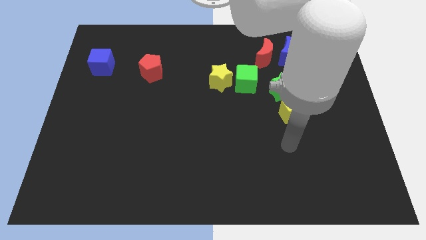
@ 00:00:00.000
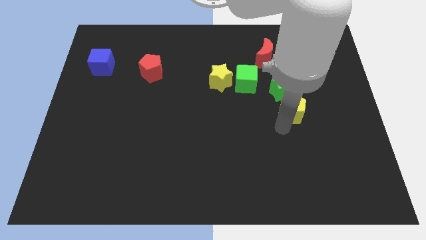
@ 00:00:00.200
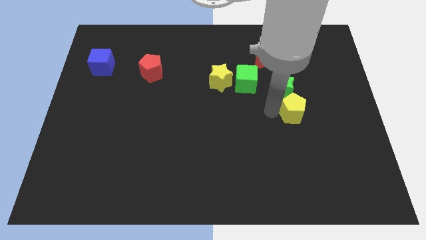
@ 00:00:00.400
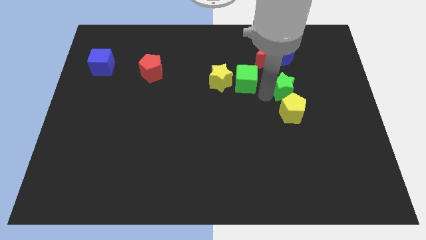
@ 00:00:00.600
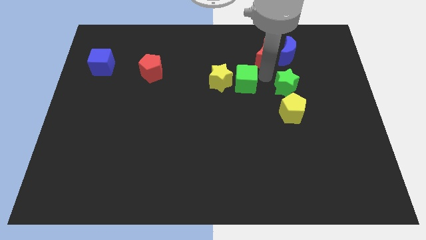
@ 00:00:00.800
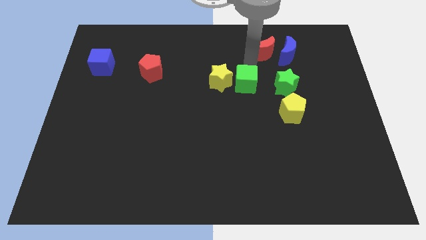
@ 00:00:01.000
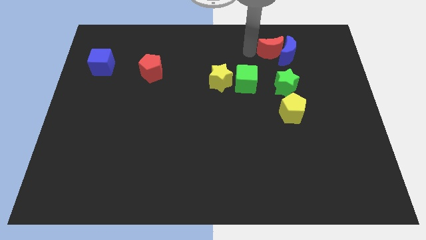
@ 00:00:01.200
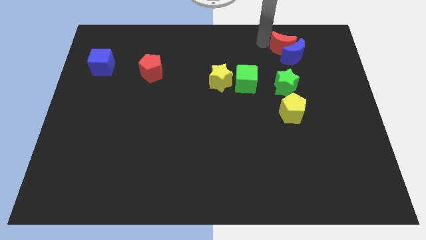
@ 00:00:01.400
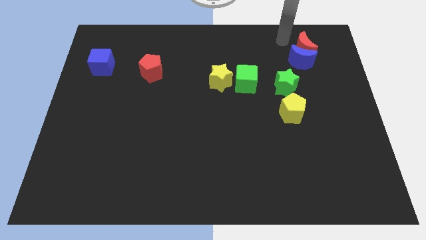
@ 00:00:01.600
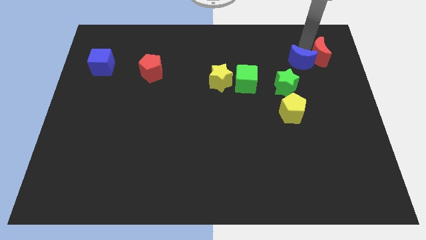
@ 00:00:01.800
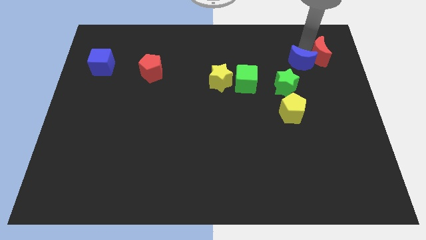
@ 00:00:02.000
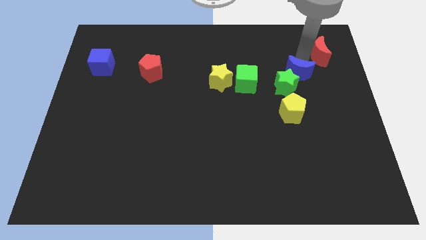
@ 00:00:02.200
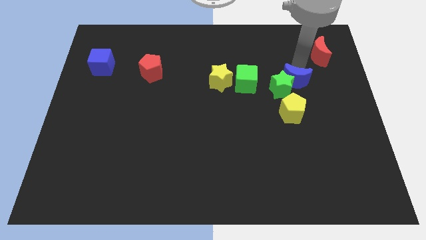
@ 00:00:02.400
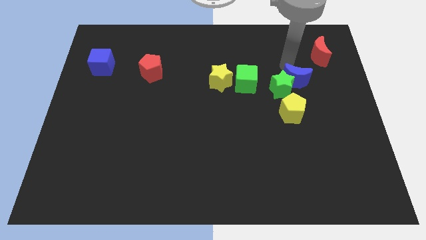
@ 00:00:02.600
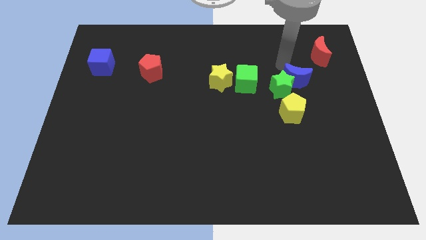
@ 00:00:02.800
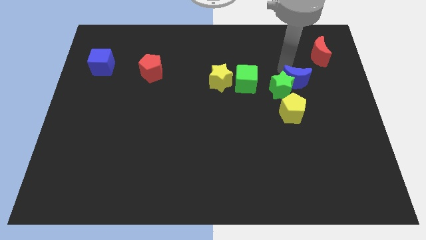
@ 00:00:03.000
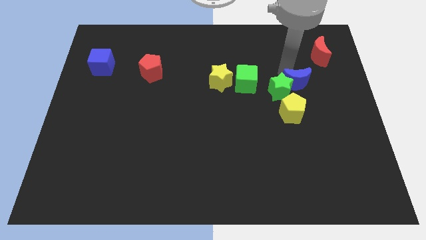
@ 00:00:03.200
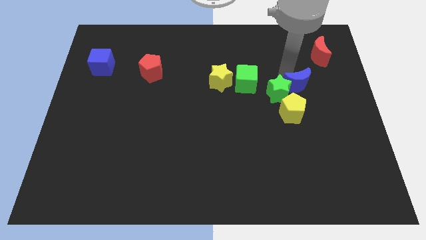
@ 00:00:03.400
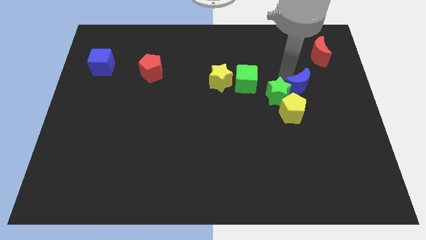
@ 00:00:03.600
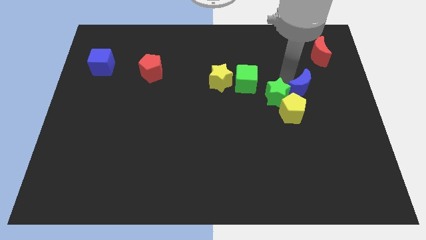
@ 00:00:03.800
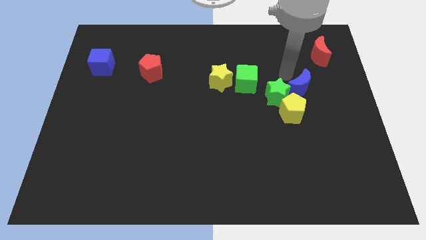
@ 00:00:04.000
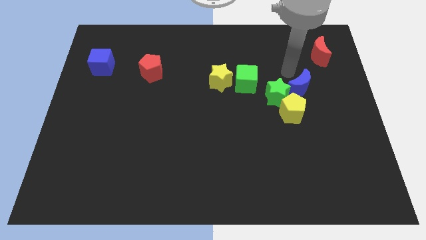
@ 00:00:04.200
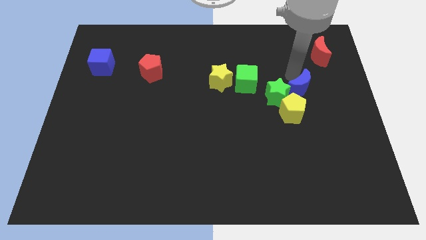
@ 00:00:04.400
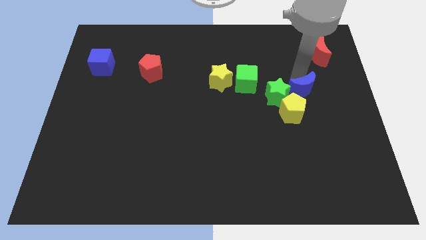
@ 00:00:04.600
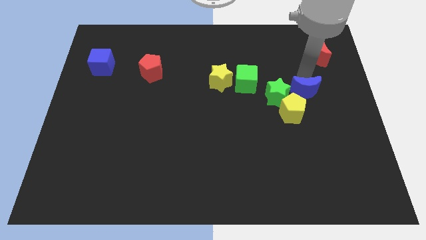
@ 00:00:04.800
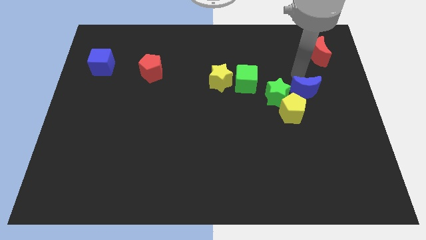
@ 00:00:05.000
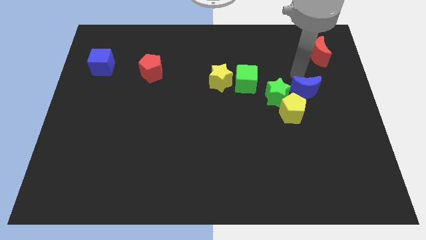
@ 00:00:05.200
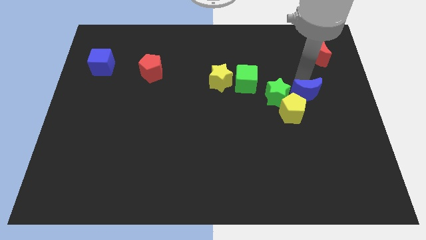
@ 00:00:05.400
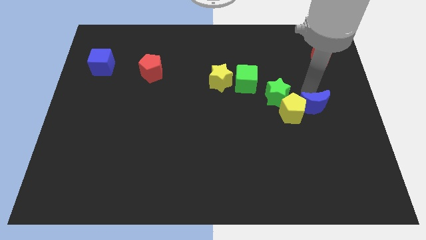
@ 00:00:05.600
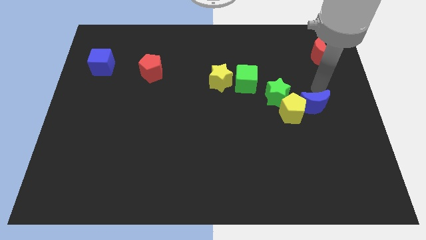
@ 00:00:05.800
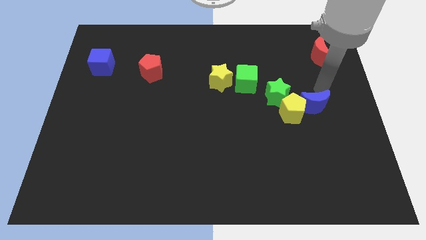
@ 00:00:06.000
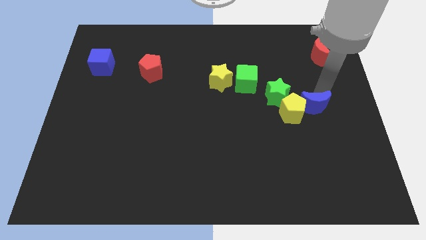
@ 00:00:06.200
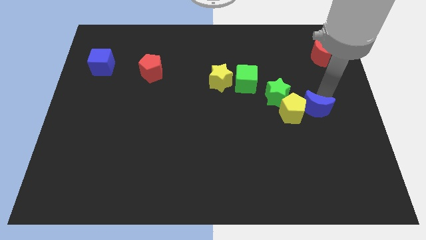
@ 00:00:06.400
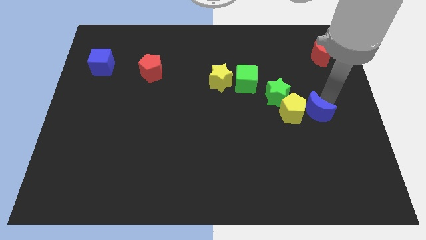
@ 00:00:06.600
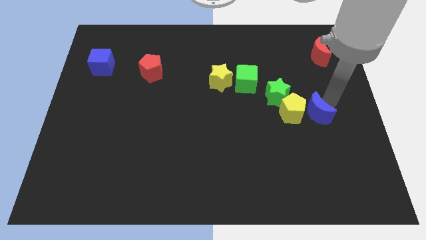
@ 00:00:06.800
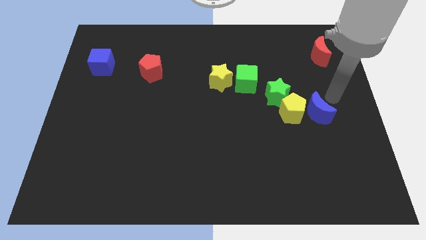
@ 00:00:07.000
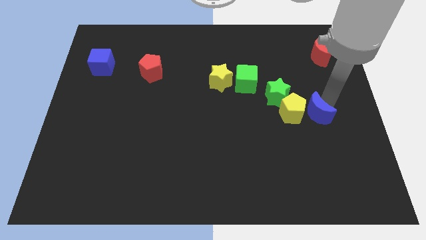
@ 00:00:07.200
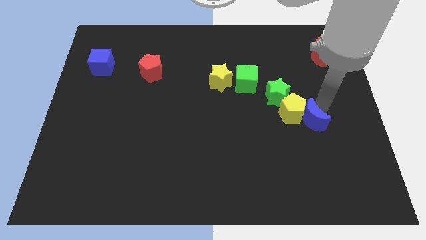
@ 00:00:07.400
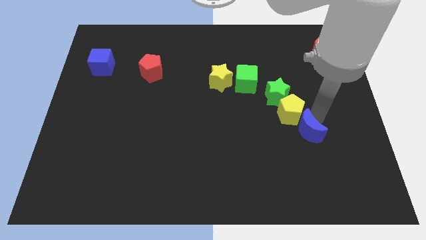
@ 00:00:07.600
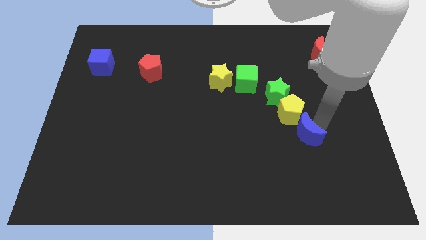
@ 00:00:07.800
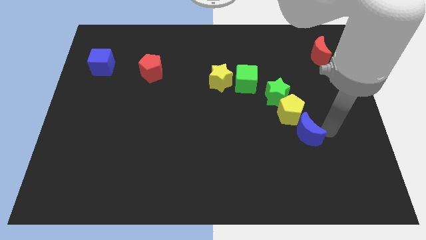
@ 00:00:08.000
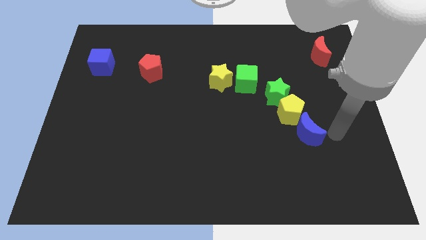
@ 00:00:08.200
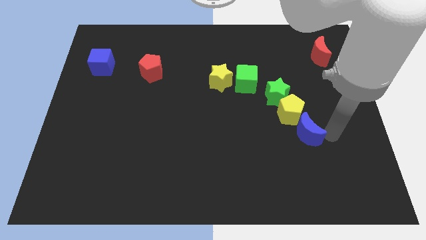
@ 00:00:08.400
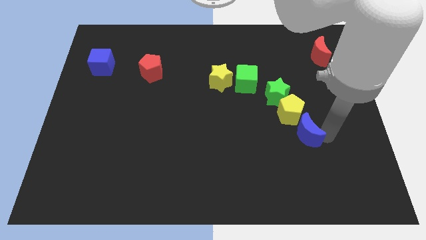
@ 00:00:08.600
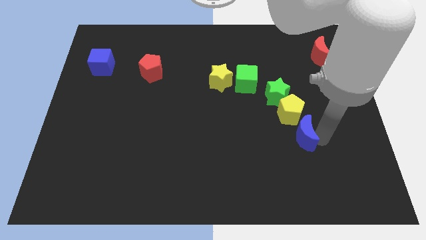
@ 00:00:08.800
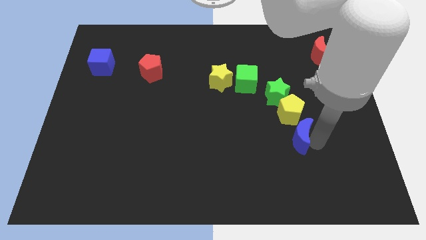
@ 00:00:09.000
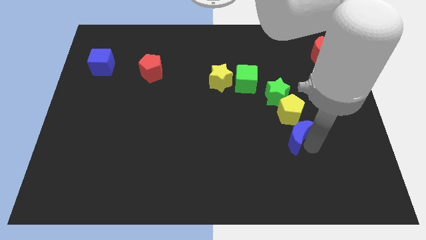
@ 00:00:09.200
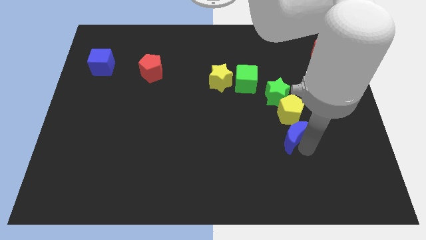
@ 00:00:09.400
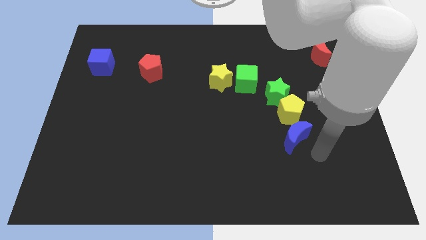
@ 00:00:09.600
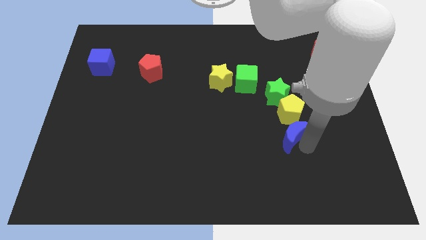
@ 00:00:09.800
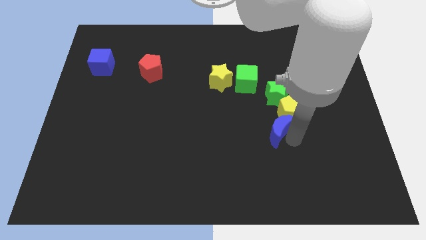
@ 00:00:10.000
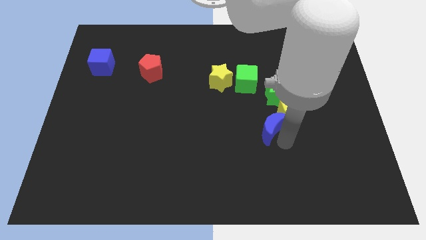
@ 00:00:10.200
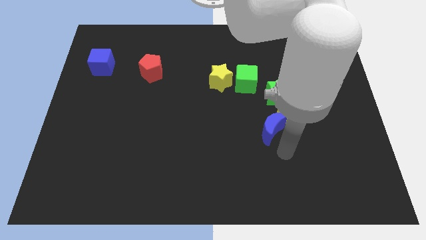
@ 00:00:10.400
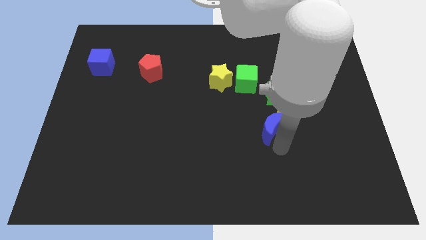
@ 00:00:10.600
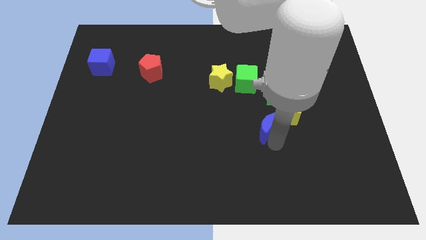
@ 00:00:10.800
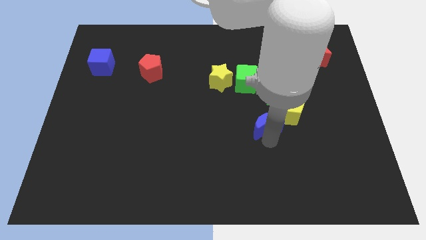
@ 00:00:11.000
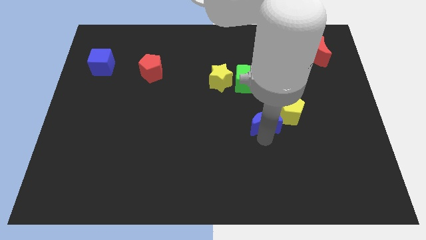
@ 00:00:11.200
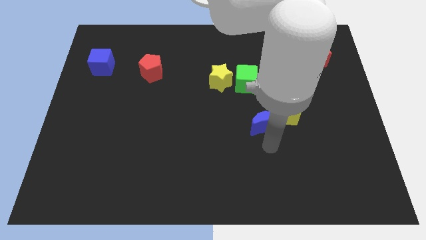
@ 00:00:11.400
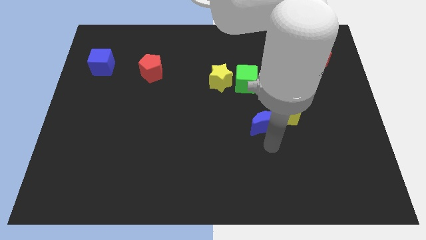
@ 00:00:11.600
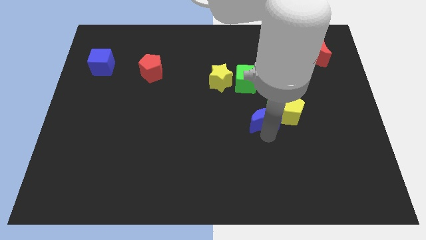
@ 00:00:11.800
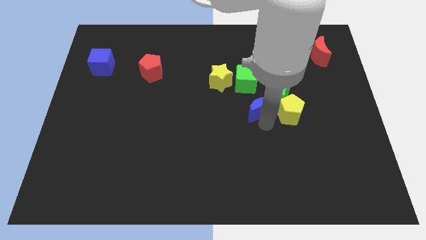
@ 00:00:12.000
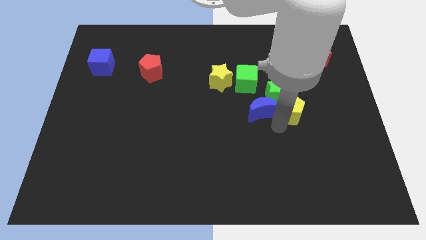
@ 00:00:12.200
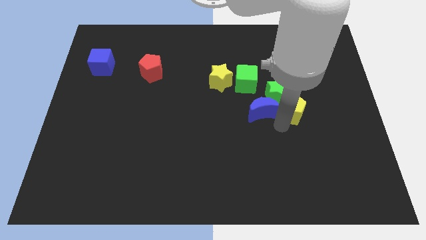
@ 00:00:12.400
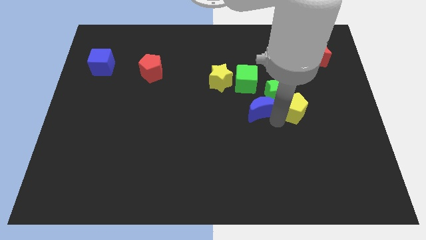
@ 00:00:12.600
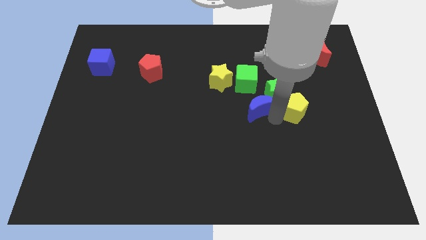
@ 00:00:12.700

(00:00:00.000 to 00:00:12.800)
move the blue moon to the bottom right of the yellow star
